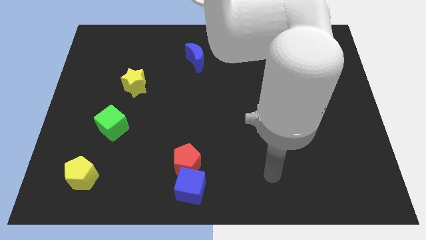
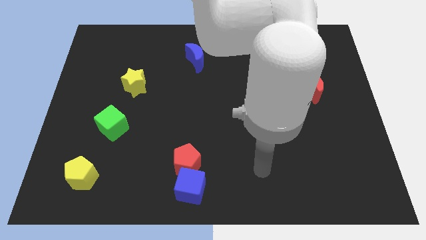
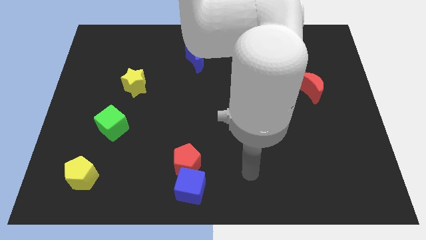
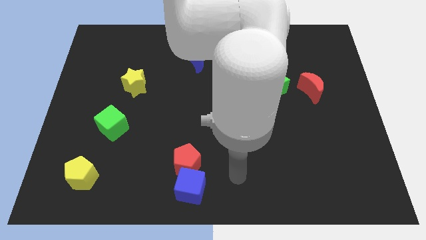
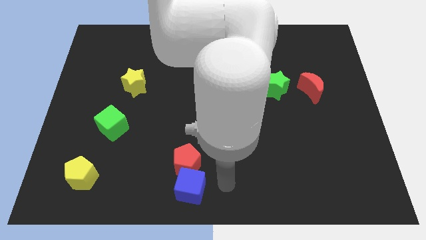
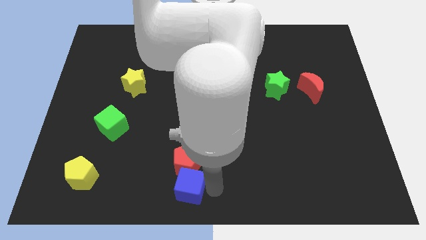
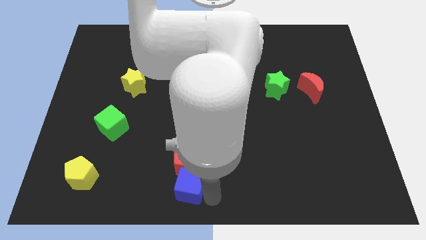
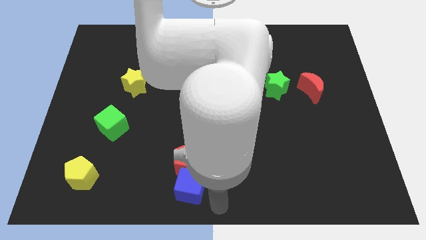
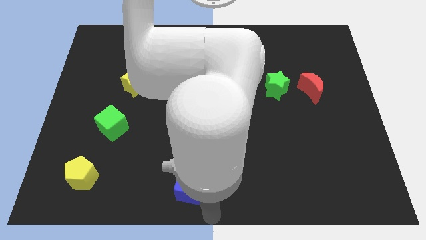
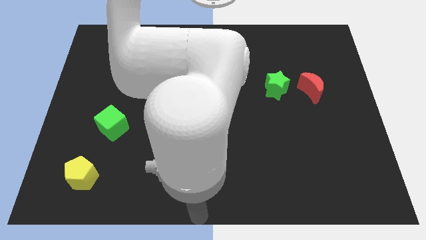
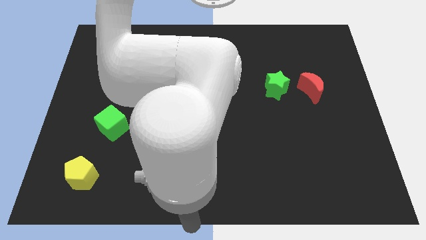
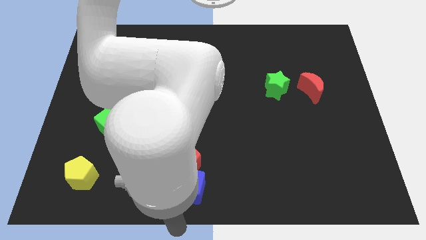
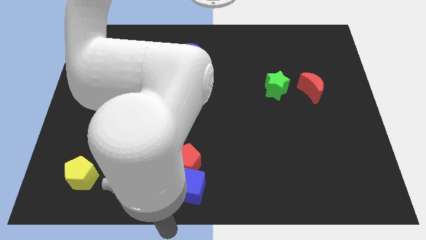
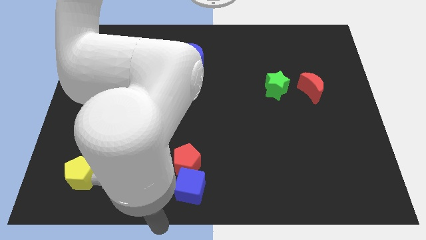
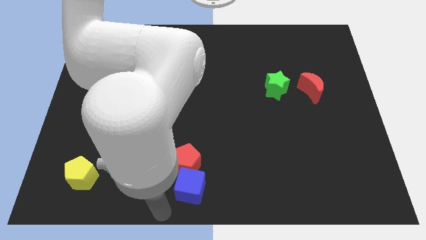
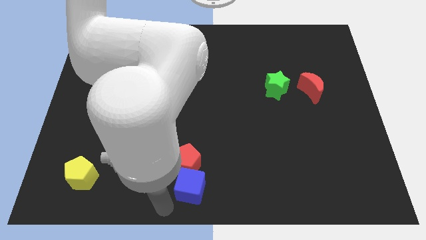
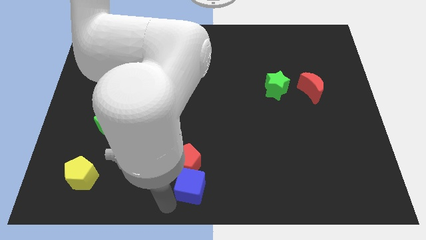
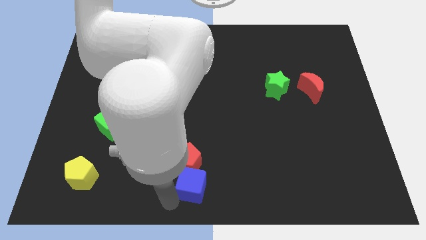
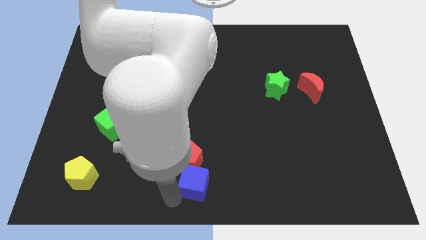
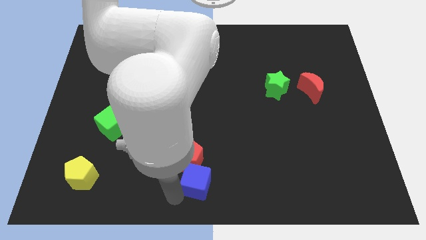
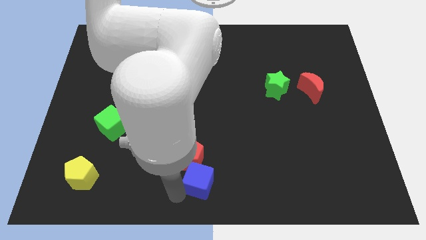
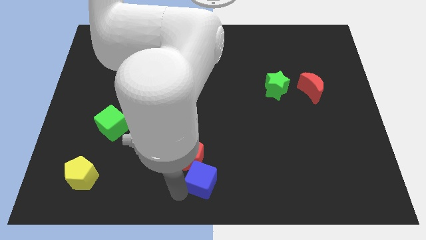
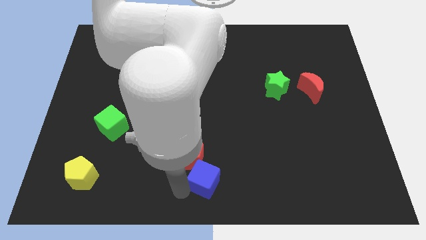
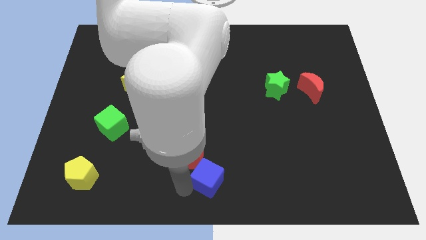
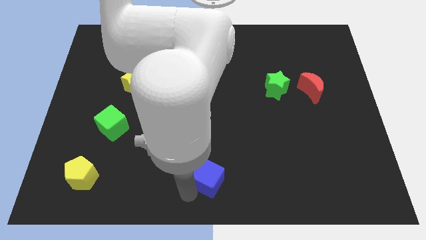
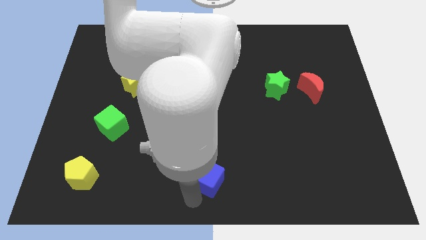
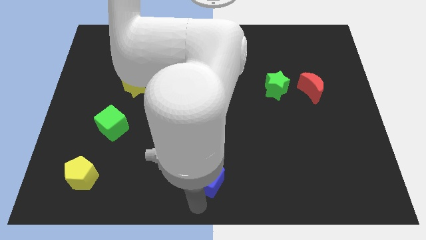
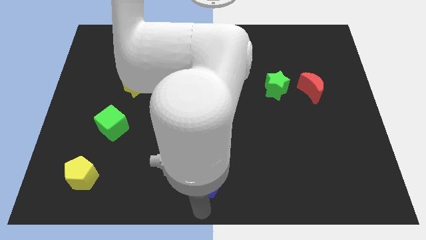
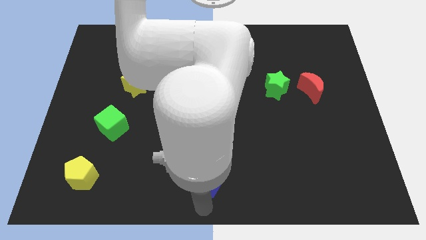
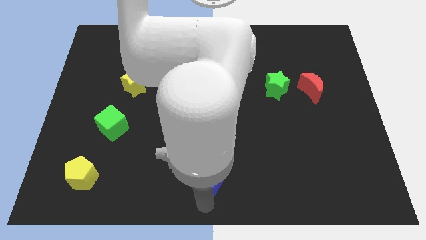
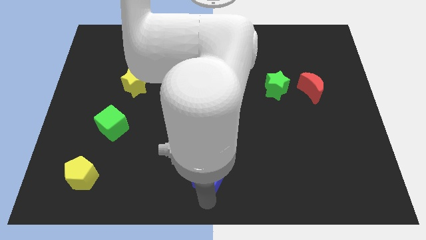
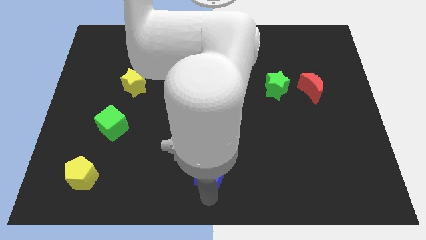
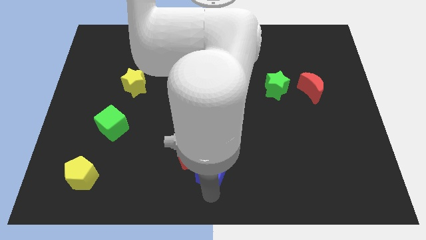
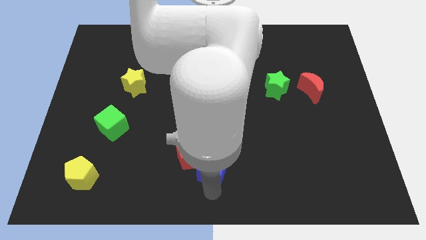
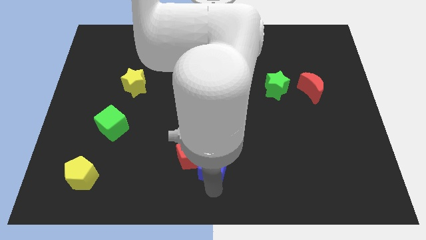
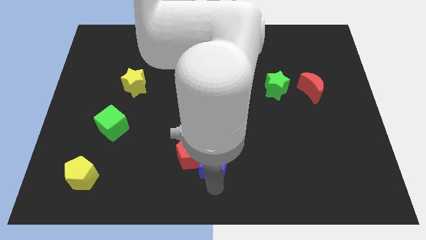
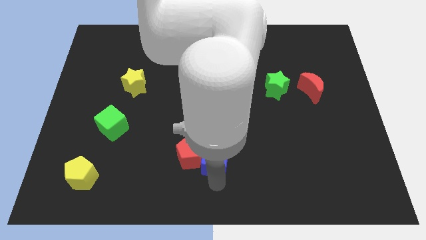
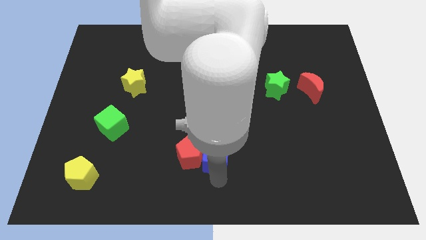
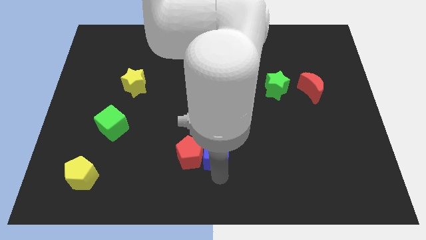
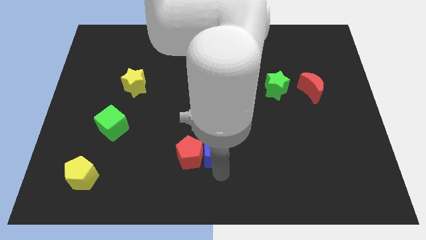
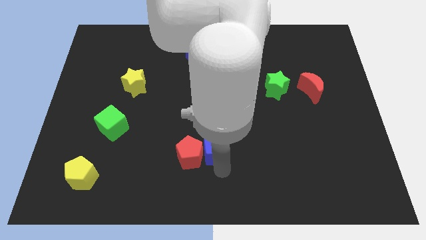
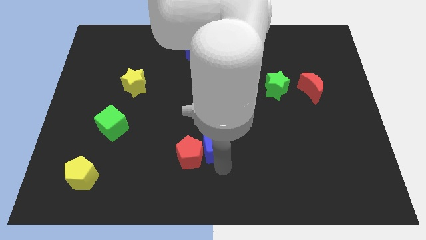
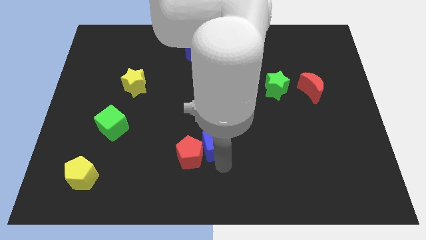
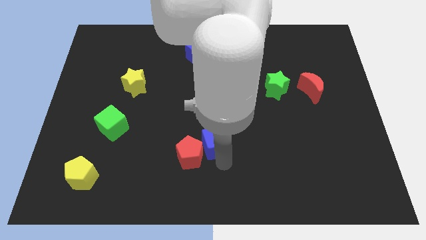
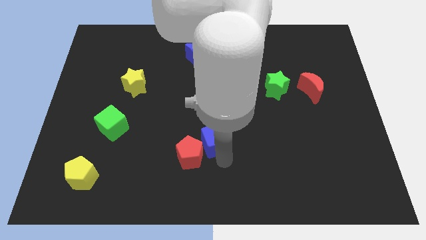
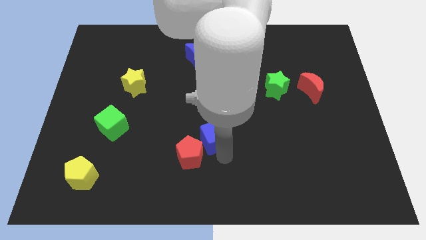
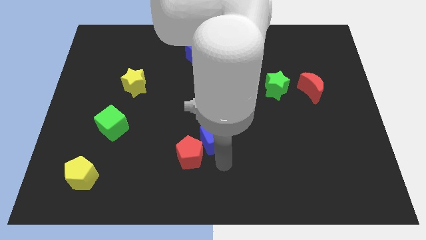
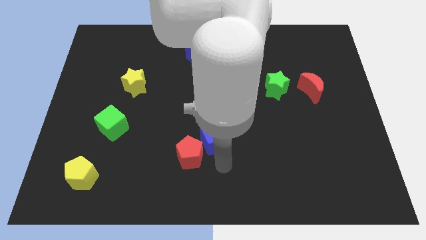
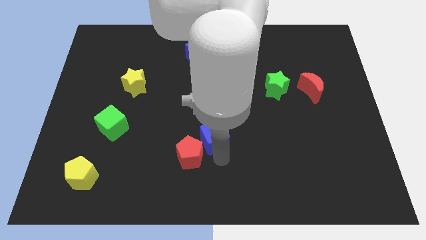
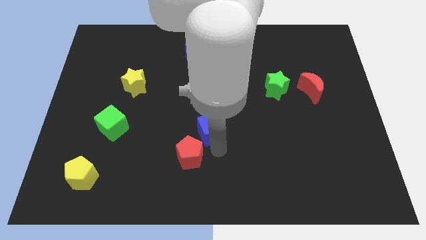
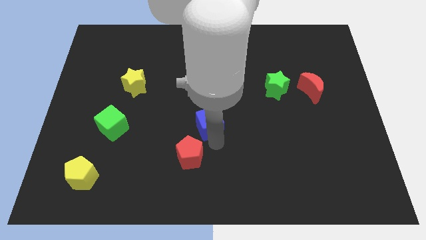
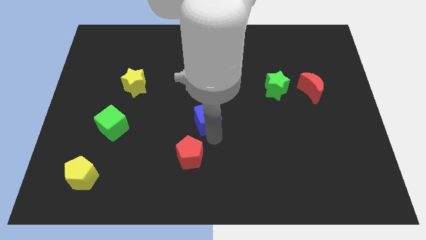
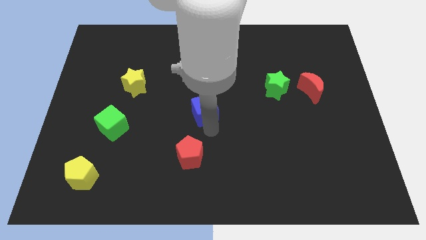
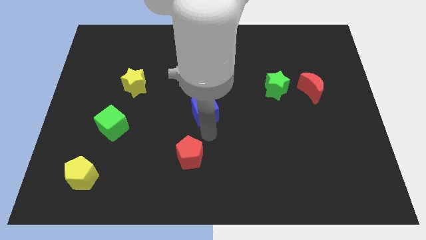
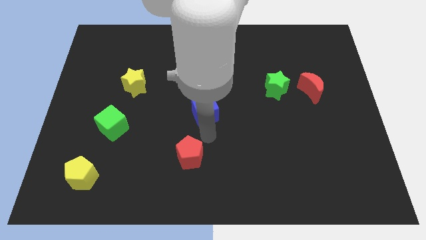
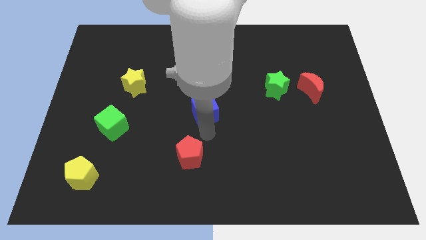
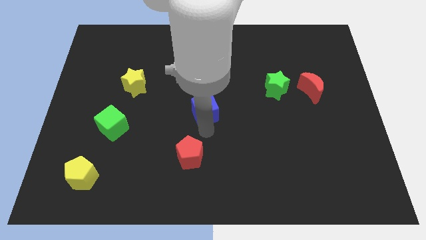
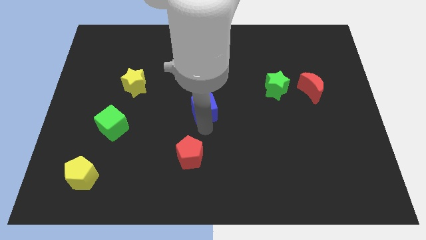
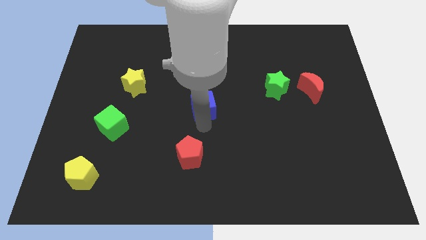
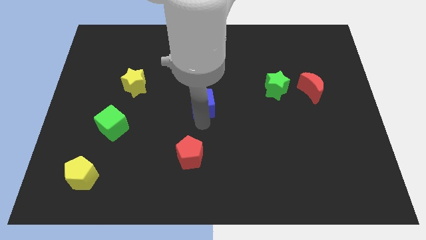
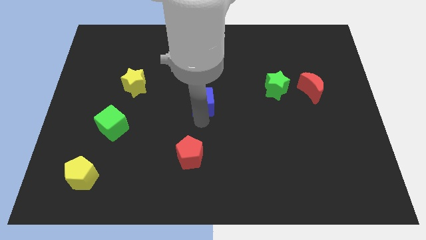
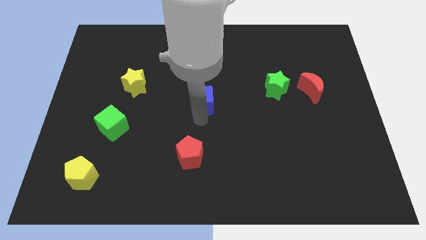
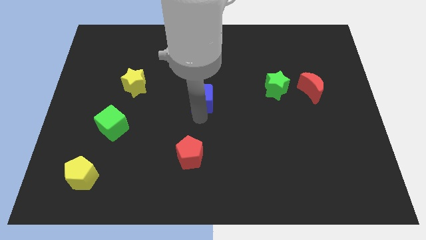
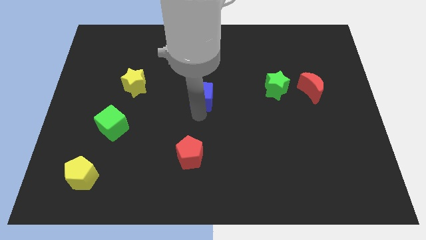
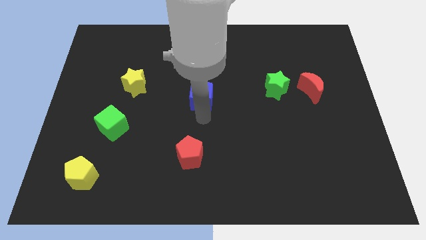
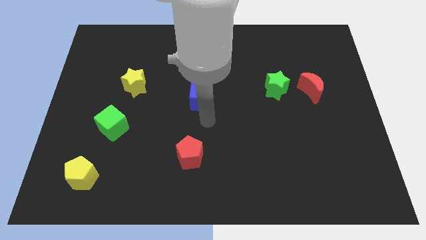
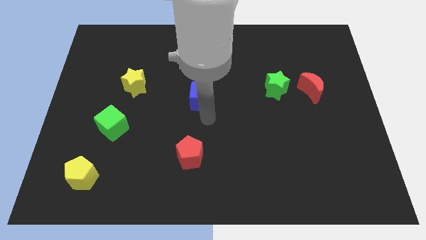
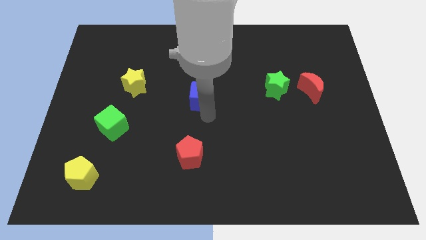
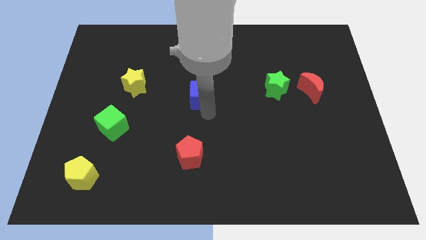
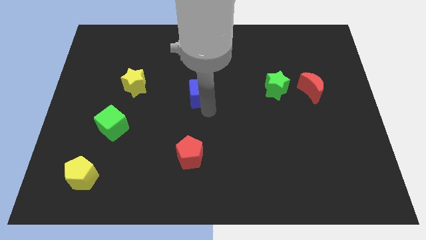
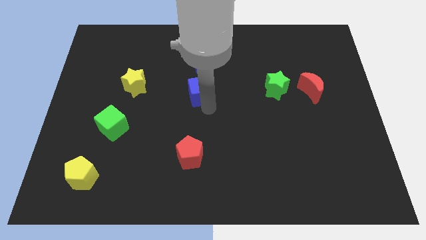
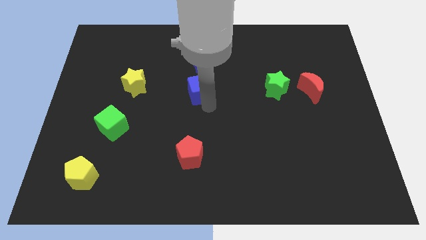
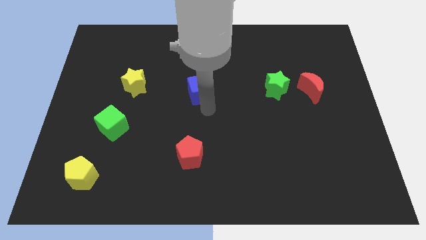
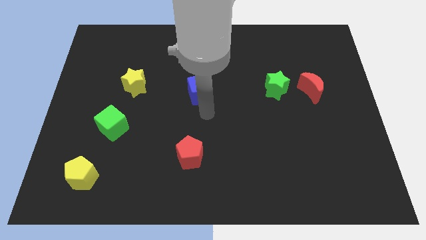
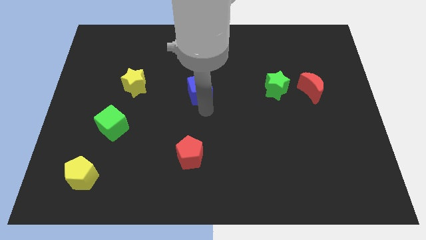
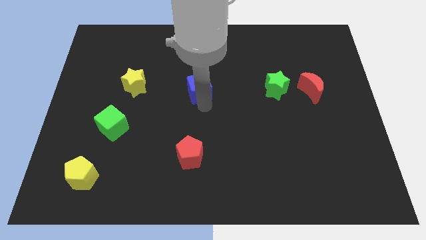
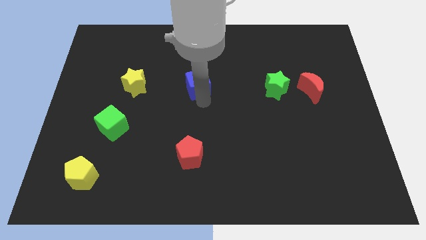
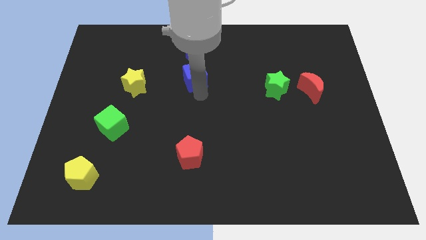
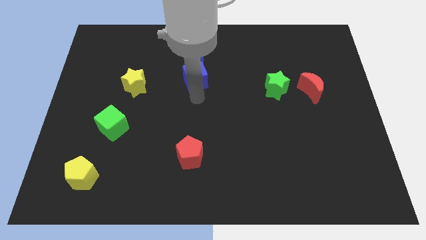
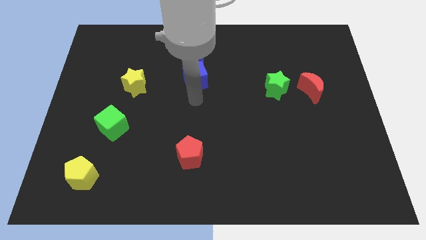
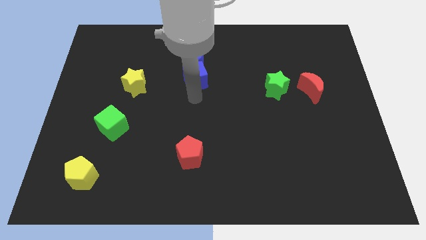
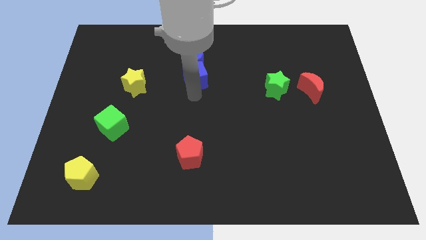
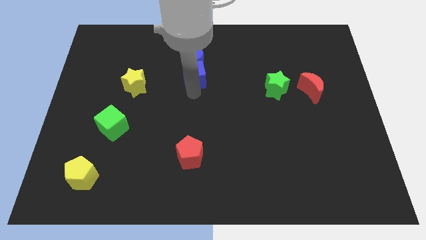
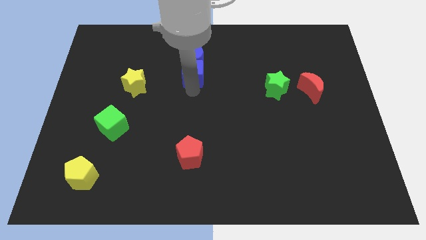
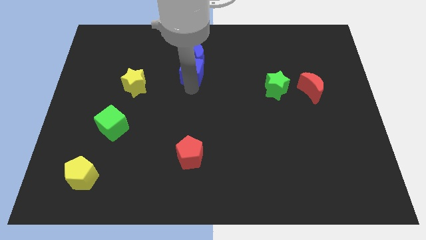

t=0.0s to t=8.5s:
slide the blue cube towards the blue moon
